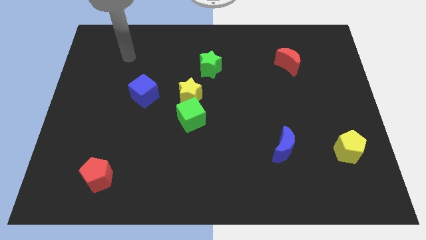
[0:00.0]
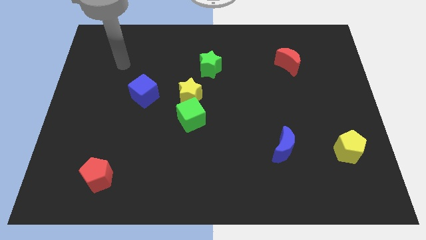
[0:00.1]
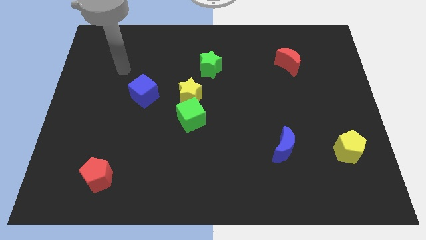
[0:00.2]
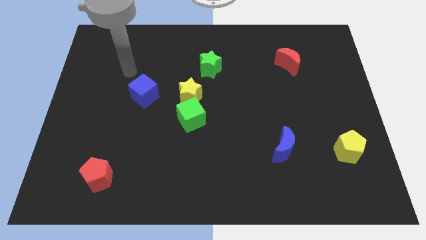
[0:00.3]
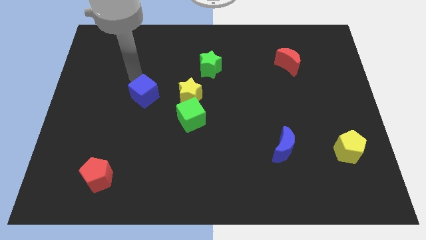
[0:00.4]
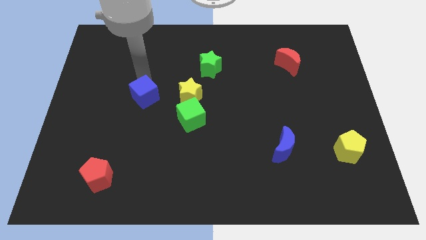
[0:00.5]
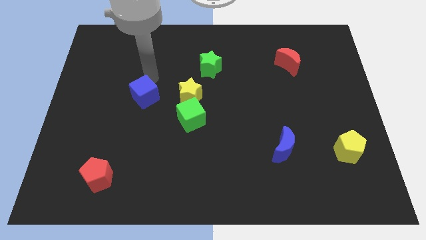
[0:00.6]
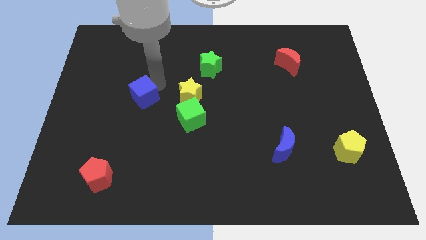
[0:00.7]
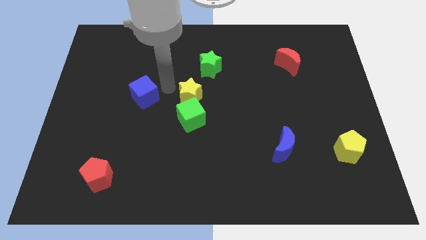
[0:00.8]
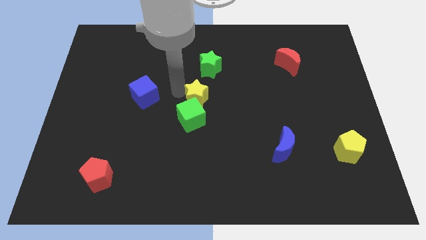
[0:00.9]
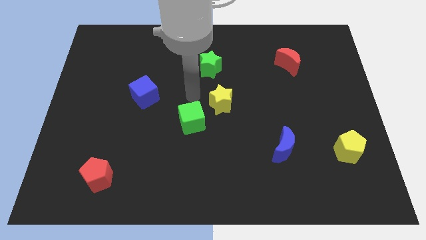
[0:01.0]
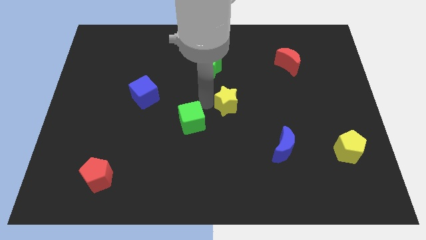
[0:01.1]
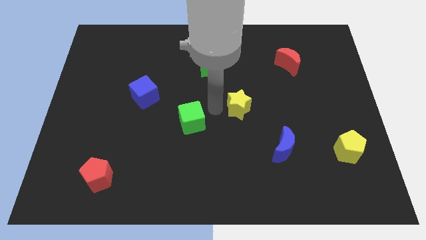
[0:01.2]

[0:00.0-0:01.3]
move the green cube away from the yellow star

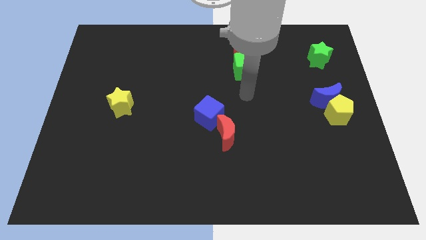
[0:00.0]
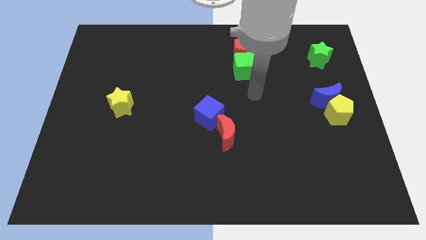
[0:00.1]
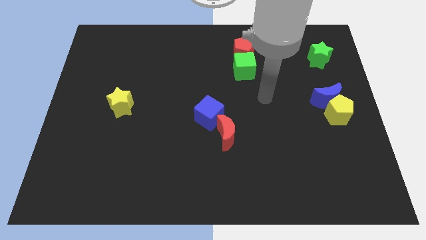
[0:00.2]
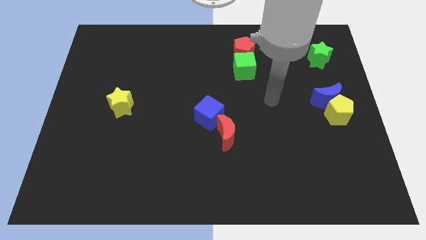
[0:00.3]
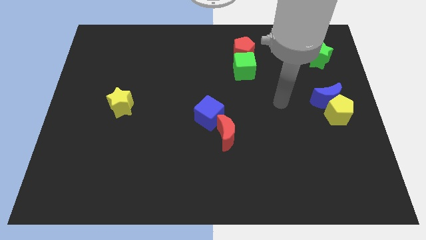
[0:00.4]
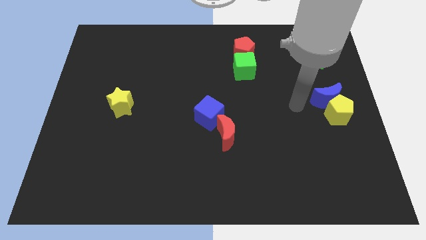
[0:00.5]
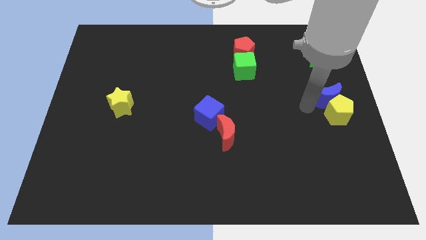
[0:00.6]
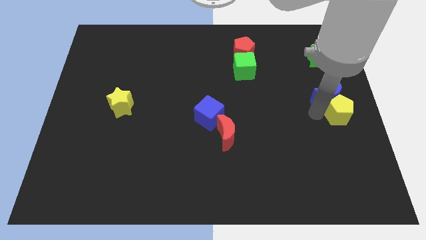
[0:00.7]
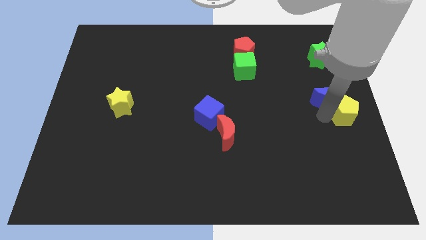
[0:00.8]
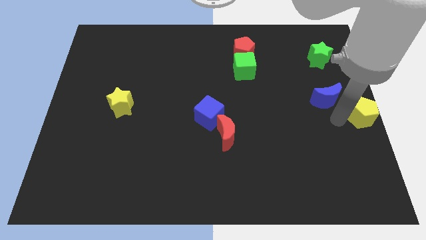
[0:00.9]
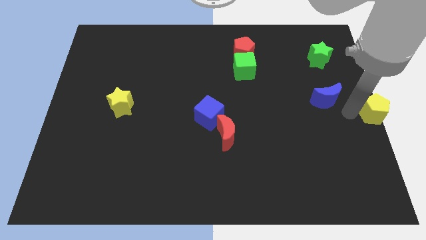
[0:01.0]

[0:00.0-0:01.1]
pull the blue moon apart from the yellow pentagon

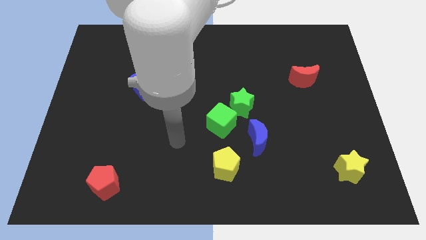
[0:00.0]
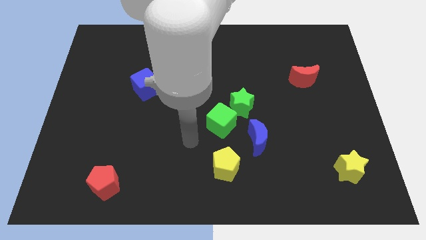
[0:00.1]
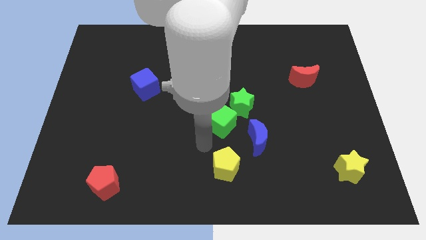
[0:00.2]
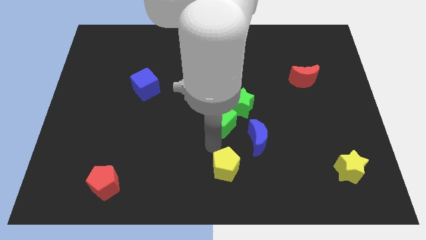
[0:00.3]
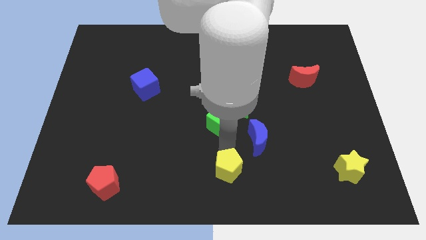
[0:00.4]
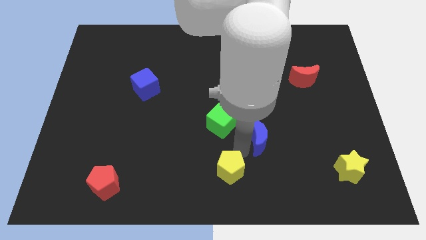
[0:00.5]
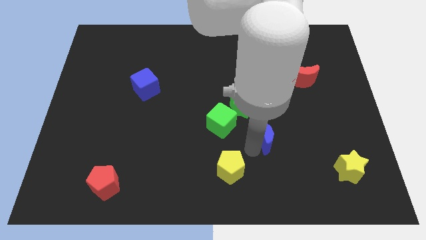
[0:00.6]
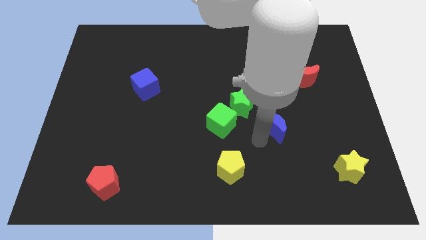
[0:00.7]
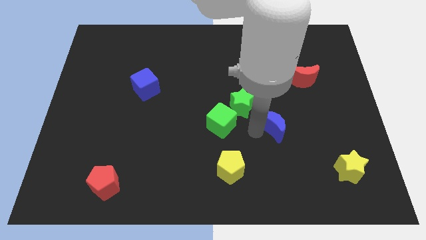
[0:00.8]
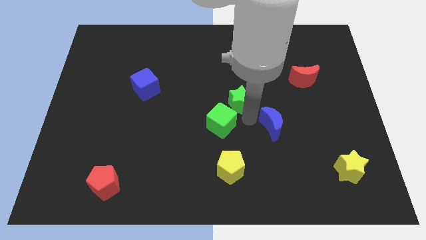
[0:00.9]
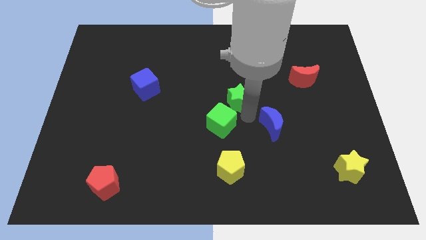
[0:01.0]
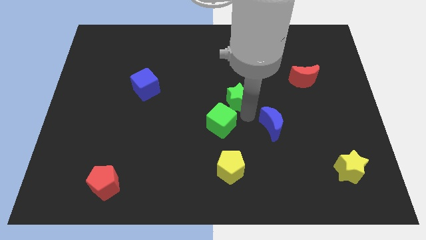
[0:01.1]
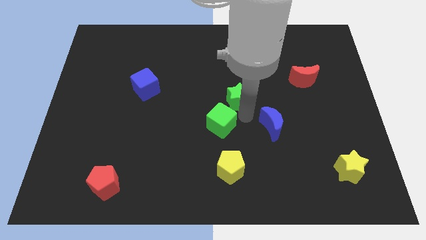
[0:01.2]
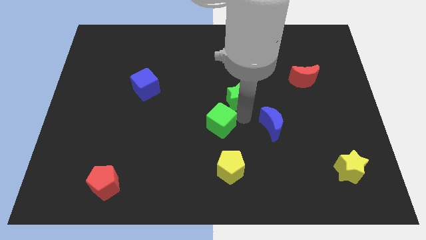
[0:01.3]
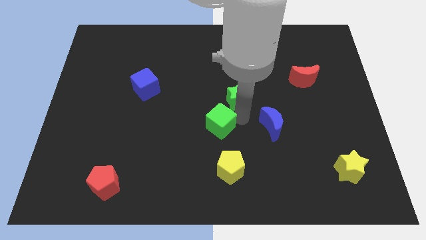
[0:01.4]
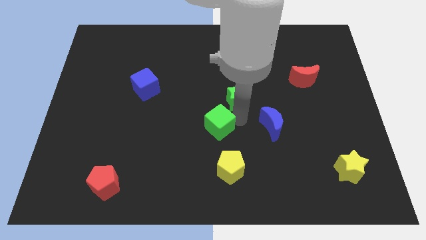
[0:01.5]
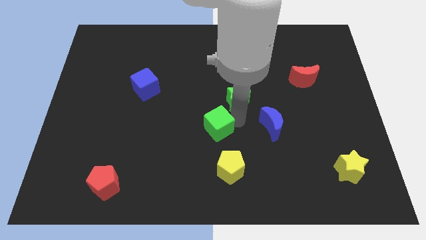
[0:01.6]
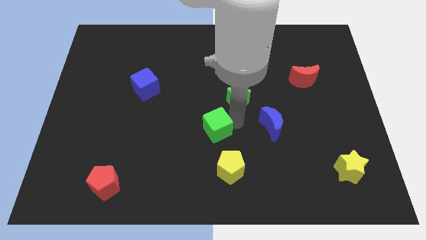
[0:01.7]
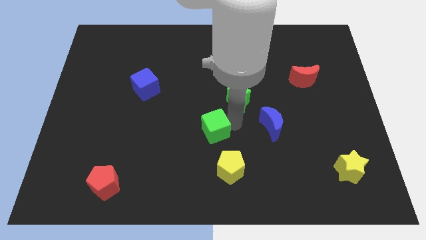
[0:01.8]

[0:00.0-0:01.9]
pull the green cube apart from the green star and blue moon

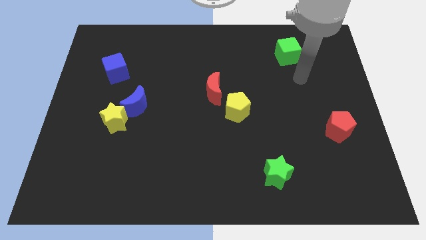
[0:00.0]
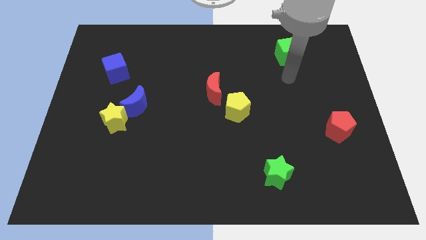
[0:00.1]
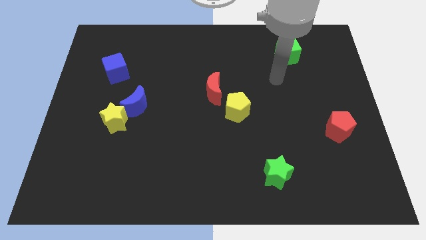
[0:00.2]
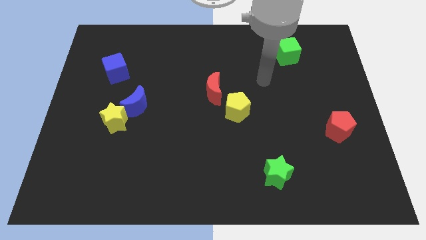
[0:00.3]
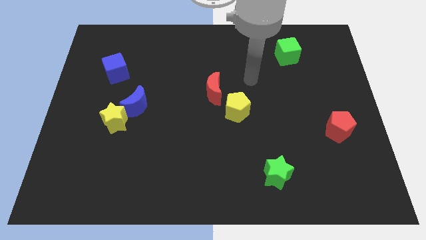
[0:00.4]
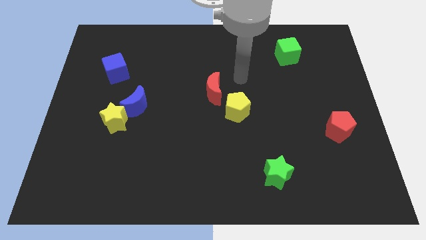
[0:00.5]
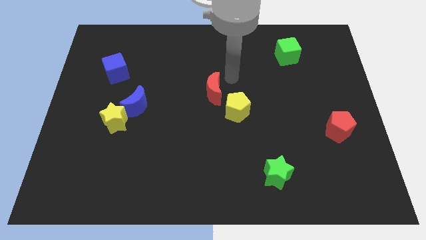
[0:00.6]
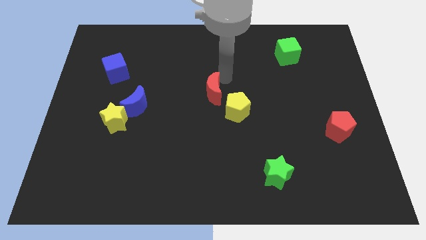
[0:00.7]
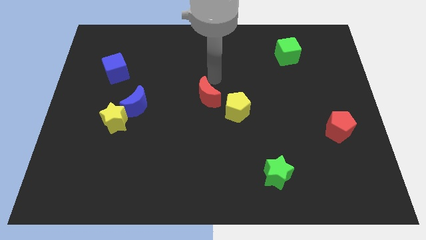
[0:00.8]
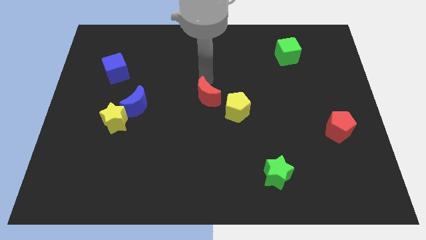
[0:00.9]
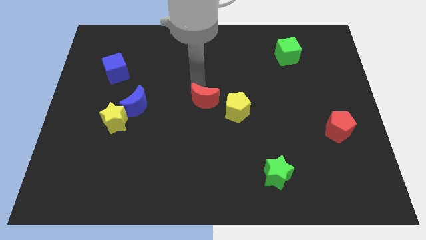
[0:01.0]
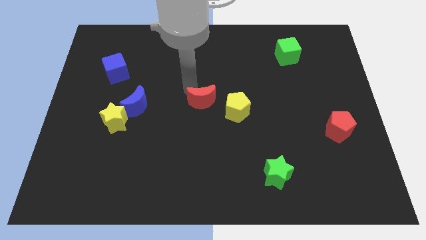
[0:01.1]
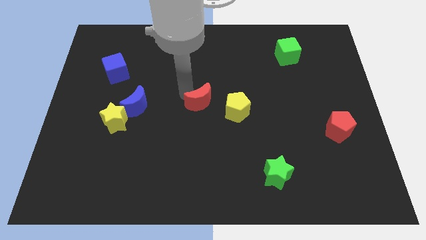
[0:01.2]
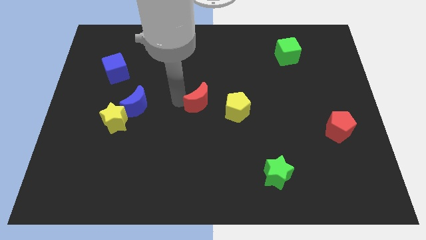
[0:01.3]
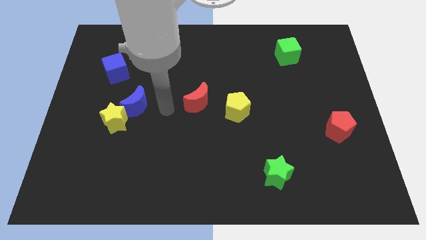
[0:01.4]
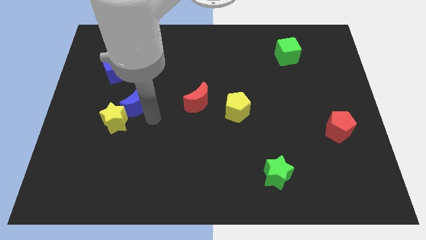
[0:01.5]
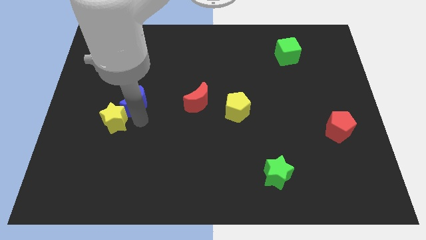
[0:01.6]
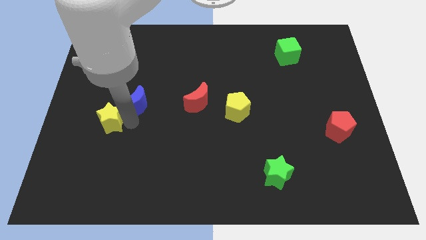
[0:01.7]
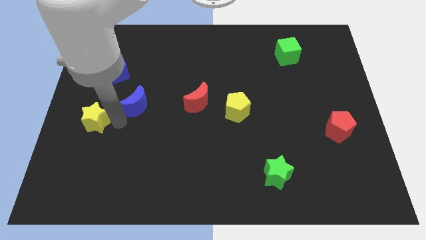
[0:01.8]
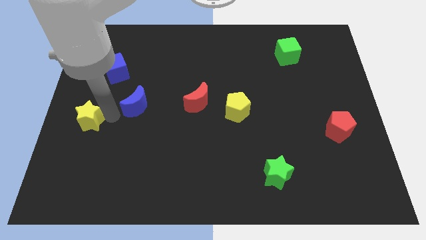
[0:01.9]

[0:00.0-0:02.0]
move the blue moon away from the yellow star

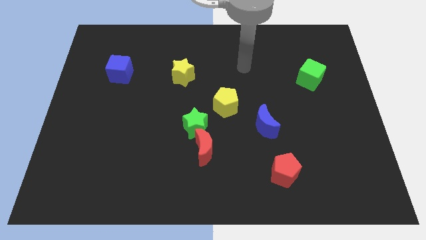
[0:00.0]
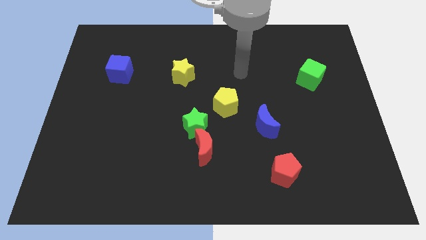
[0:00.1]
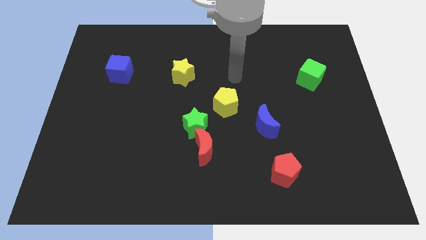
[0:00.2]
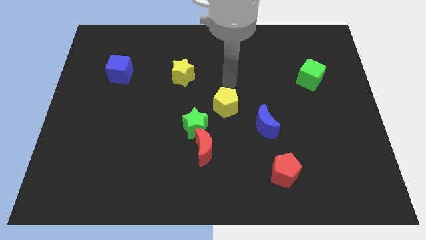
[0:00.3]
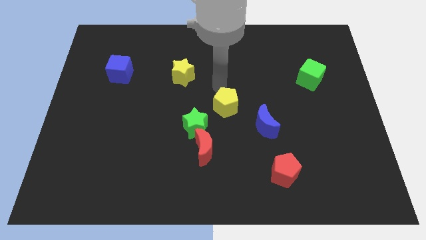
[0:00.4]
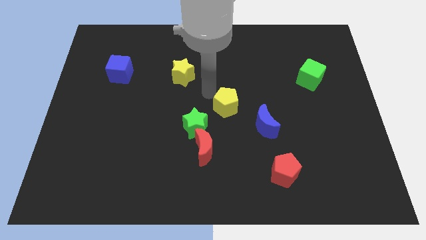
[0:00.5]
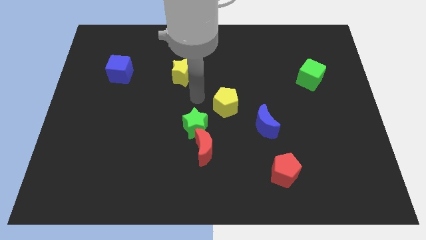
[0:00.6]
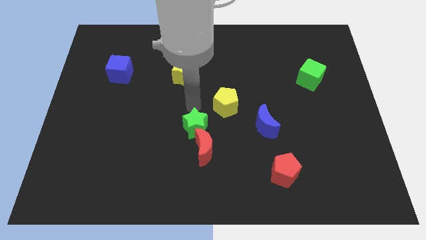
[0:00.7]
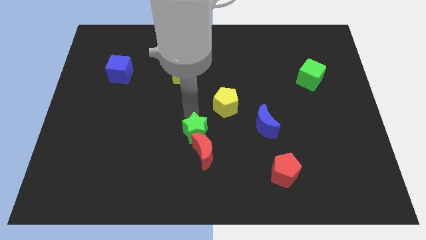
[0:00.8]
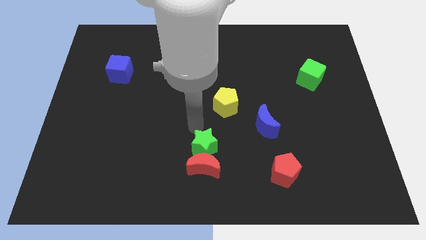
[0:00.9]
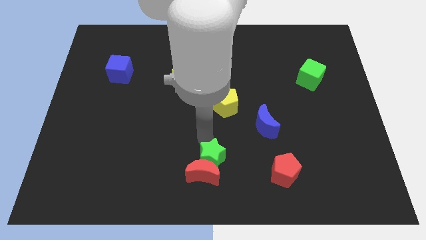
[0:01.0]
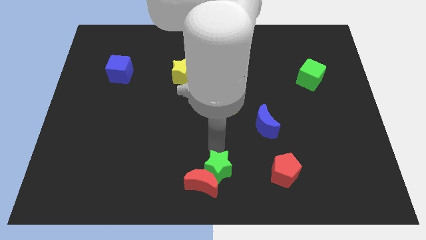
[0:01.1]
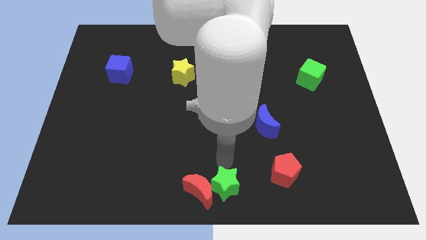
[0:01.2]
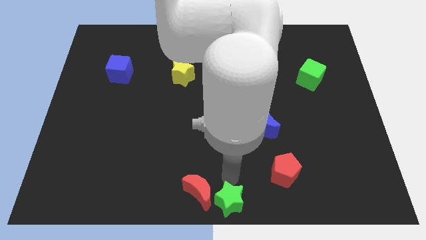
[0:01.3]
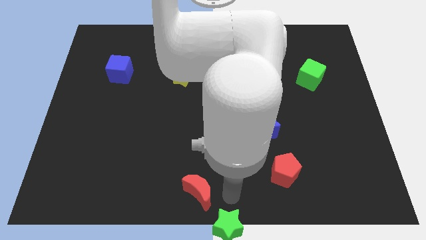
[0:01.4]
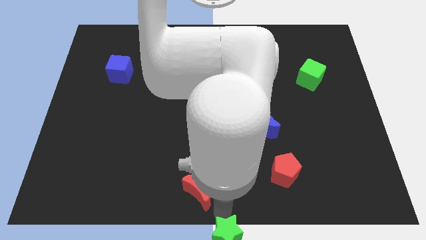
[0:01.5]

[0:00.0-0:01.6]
pull the red moon apart from the green star

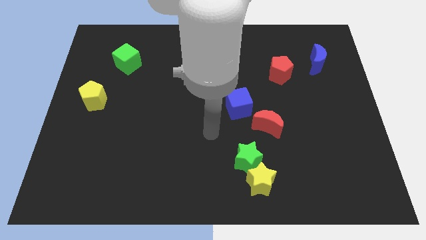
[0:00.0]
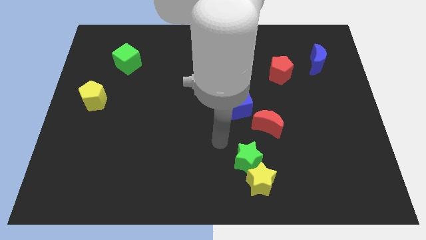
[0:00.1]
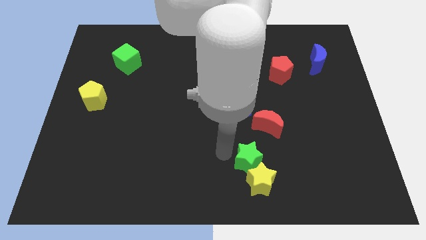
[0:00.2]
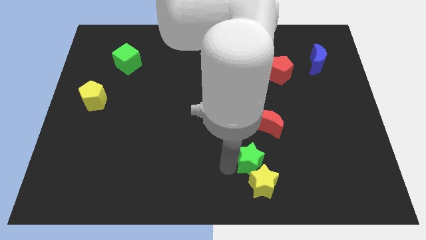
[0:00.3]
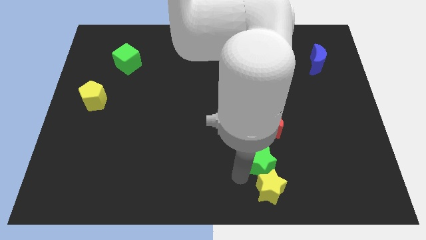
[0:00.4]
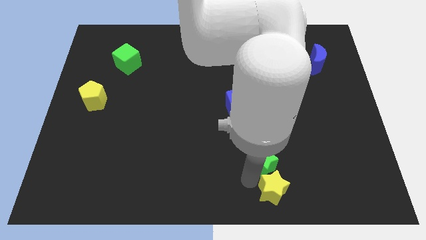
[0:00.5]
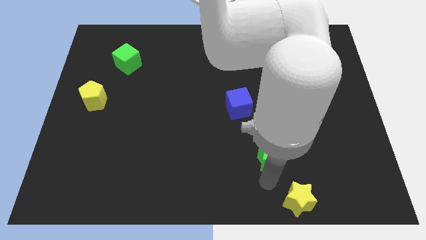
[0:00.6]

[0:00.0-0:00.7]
separate the green star from the yellow star

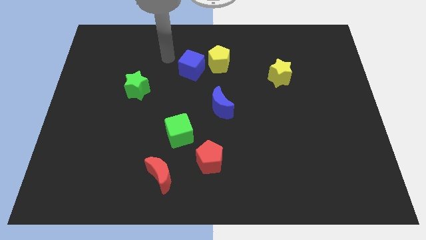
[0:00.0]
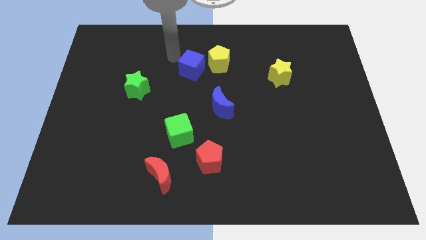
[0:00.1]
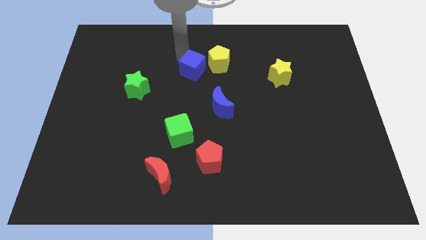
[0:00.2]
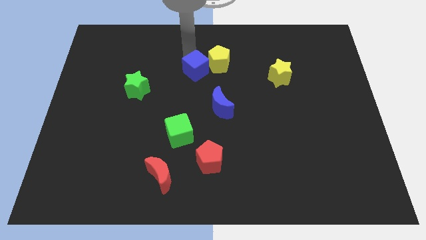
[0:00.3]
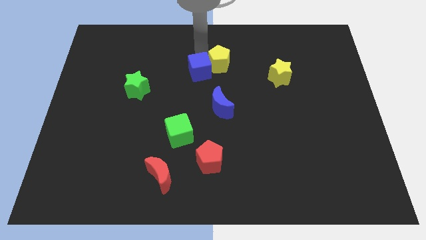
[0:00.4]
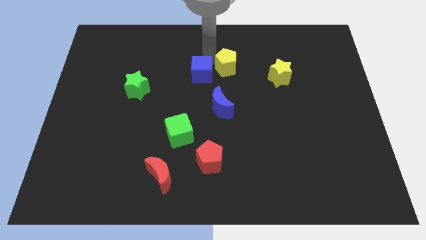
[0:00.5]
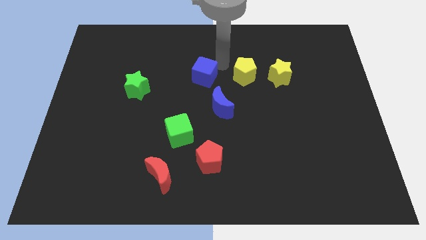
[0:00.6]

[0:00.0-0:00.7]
pull the blue cube apart from the yellow pentagon

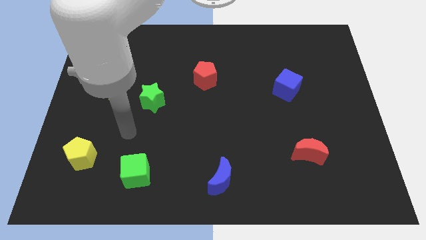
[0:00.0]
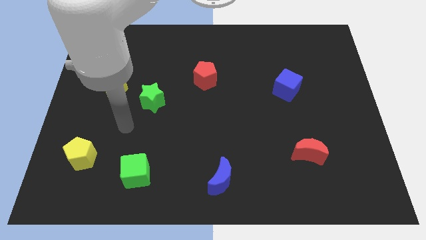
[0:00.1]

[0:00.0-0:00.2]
move the green star away from the yellow star

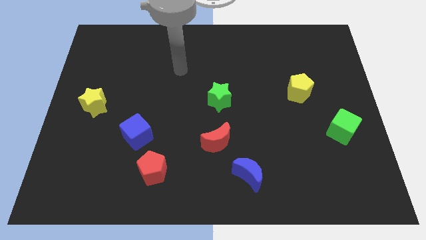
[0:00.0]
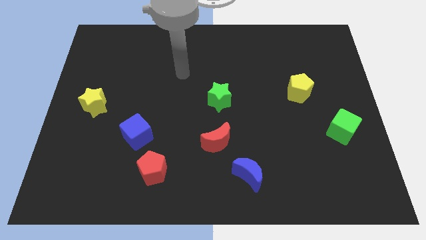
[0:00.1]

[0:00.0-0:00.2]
move the red pentagon away from the blue cube
